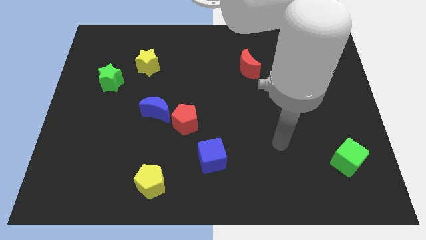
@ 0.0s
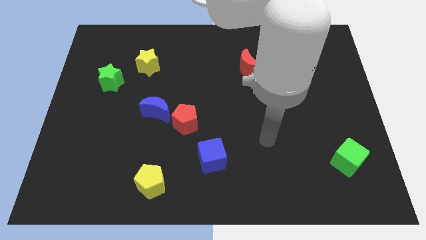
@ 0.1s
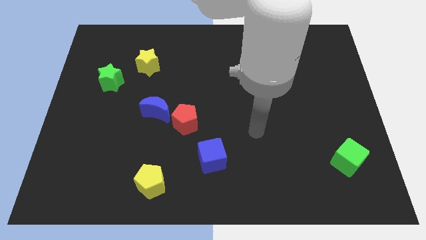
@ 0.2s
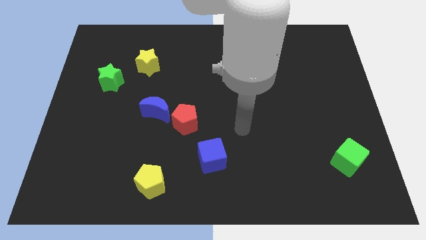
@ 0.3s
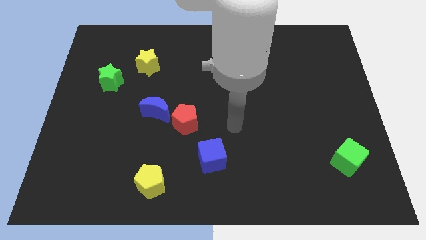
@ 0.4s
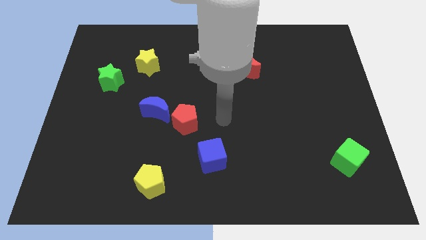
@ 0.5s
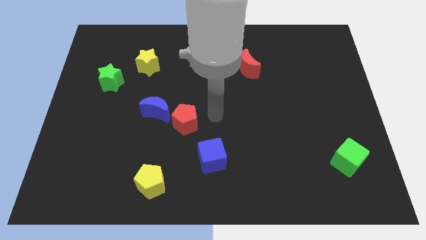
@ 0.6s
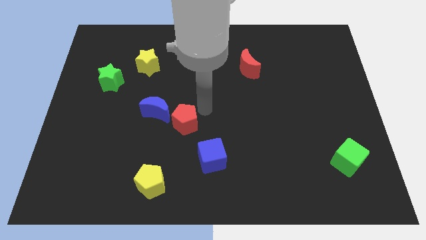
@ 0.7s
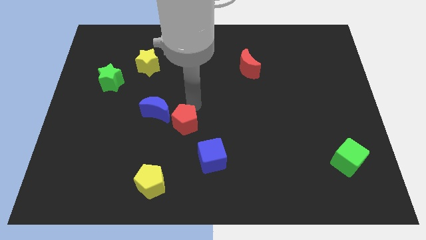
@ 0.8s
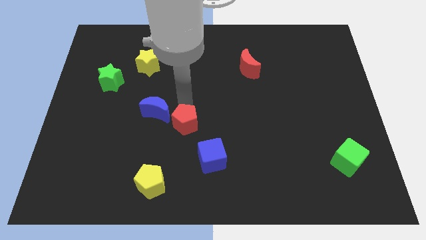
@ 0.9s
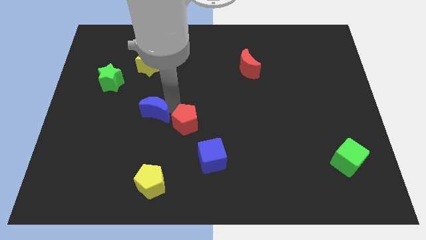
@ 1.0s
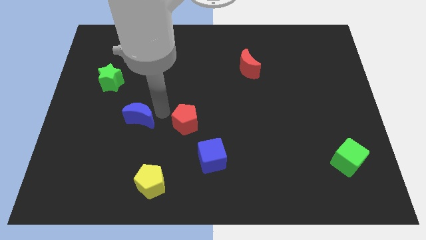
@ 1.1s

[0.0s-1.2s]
separate the red pentagon from the blue moon

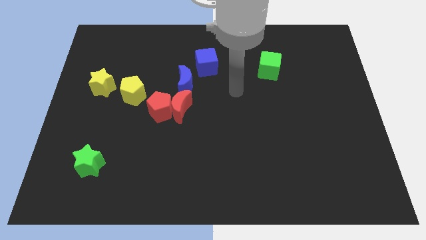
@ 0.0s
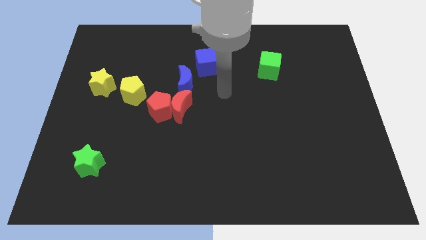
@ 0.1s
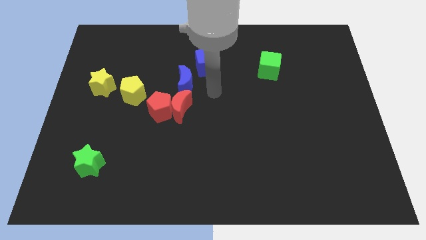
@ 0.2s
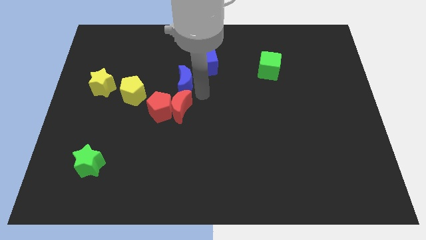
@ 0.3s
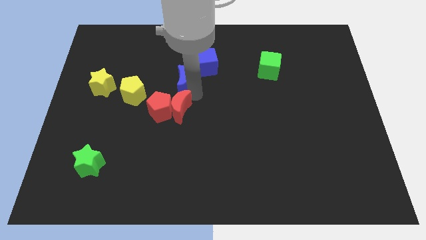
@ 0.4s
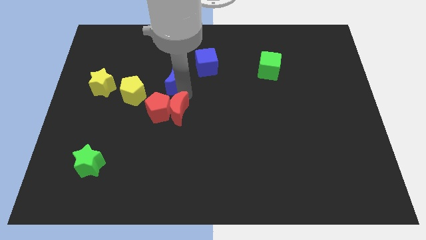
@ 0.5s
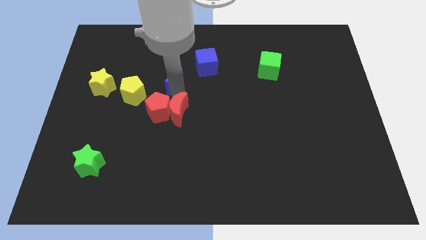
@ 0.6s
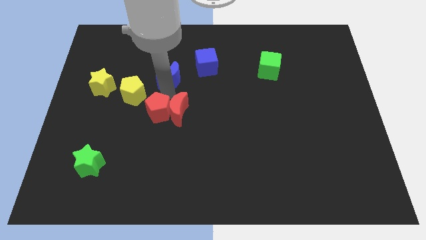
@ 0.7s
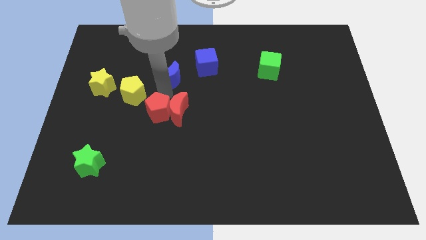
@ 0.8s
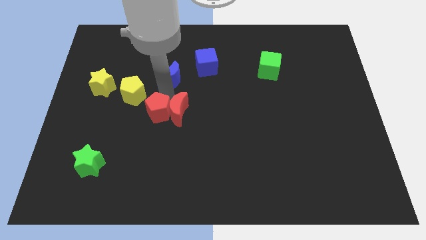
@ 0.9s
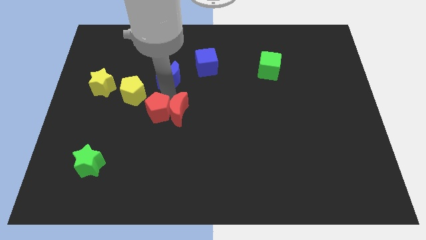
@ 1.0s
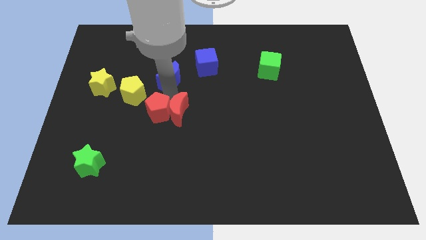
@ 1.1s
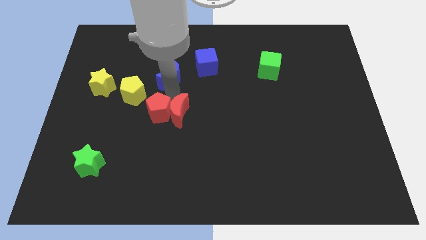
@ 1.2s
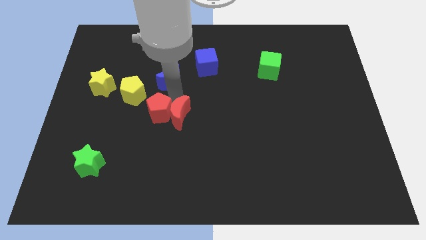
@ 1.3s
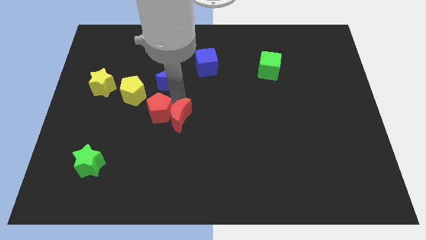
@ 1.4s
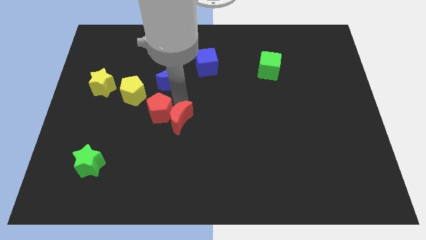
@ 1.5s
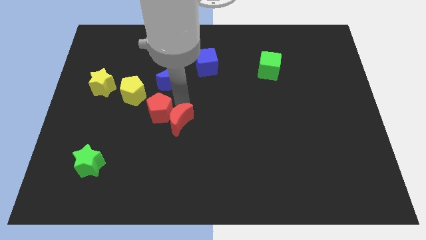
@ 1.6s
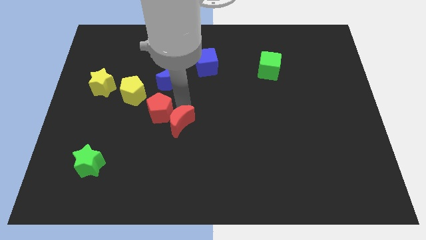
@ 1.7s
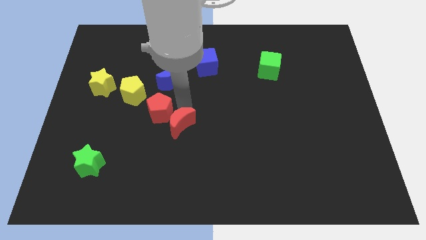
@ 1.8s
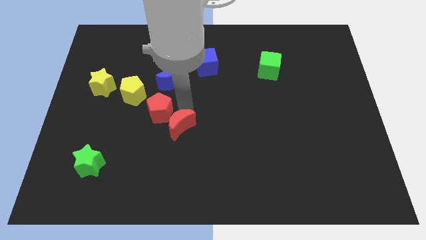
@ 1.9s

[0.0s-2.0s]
move the red moon away from the red pentagon and blue moon

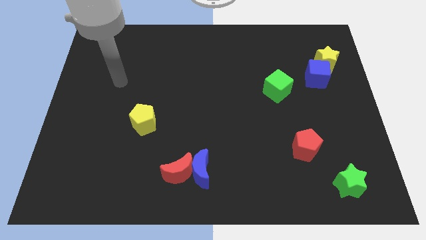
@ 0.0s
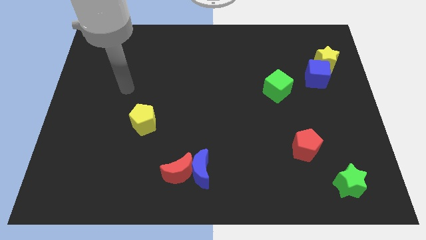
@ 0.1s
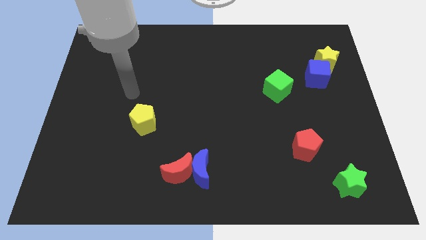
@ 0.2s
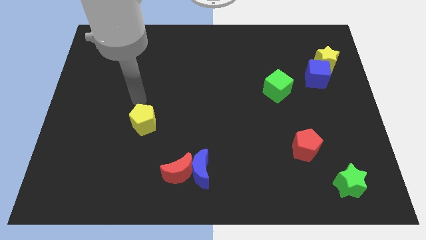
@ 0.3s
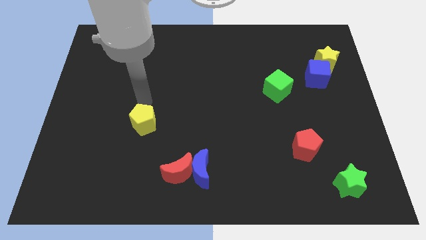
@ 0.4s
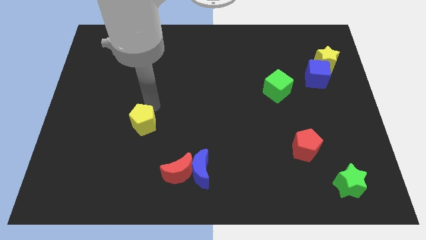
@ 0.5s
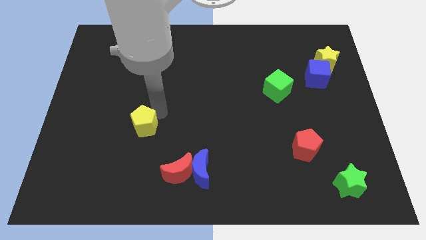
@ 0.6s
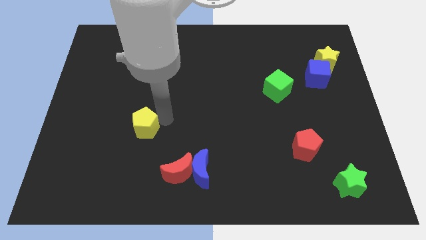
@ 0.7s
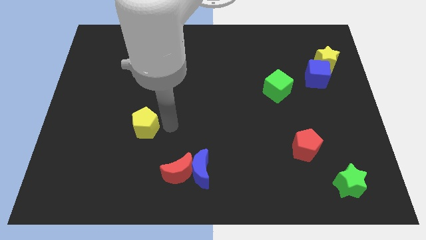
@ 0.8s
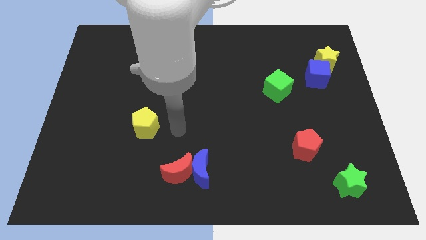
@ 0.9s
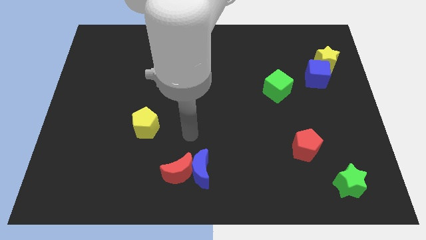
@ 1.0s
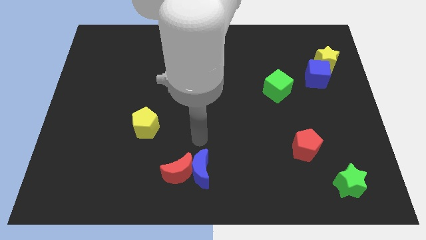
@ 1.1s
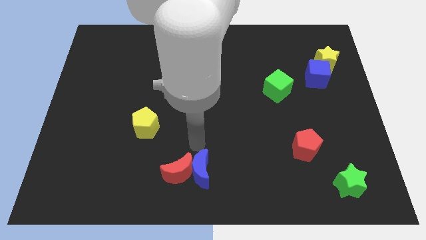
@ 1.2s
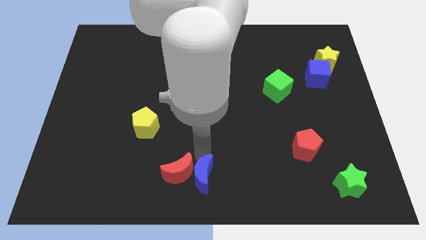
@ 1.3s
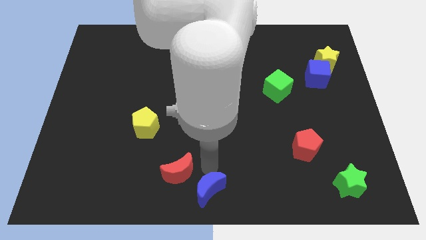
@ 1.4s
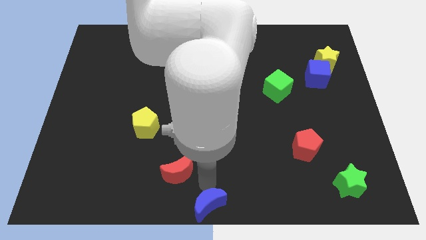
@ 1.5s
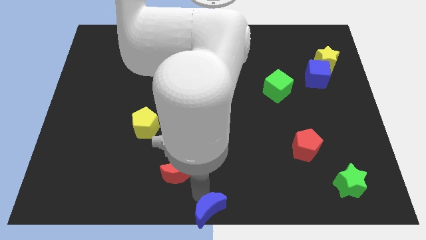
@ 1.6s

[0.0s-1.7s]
move the red moon away from the blue moon

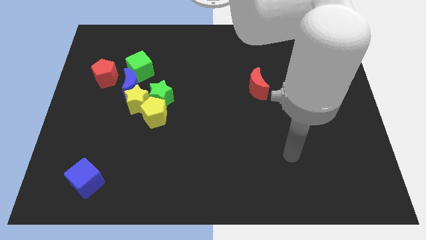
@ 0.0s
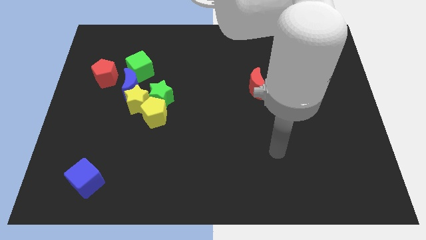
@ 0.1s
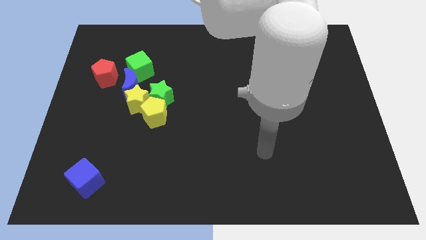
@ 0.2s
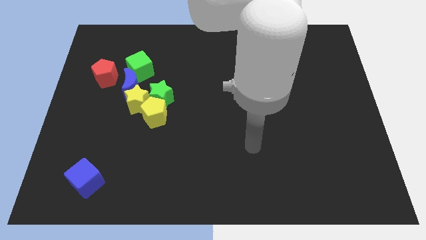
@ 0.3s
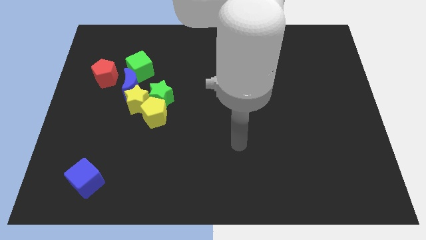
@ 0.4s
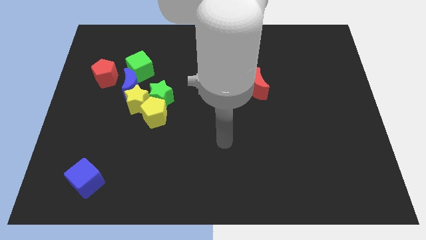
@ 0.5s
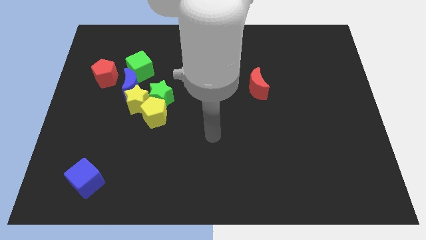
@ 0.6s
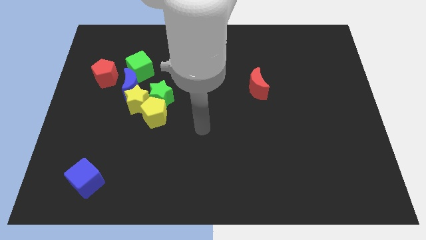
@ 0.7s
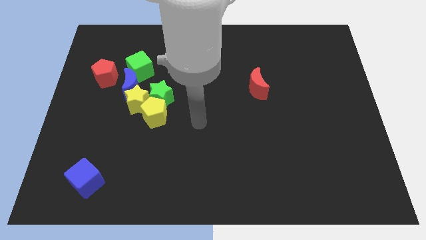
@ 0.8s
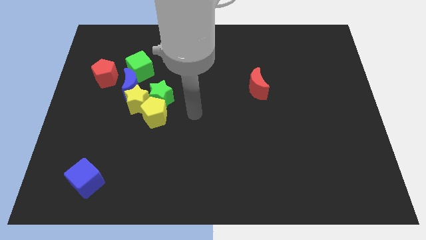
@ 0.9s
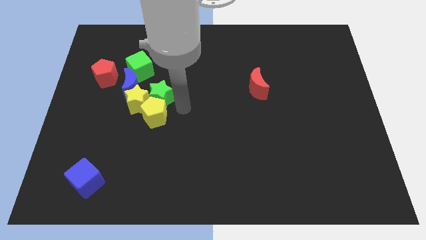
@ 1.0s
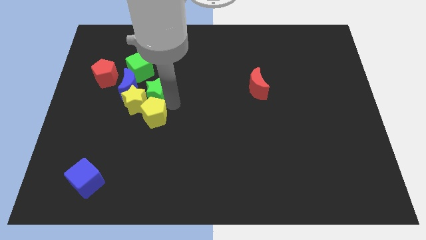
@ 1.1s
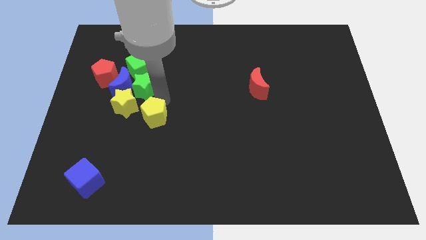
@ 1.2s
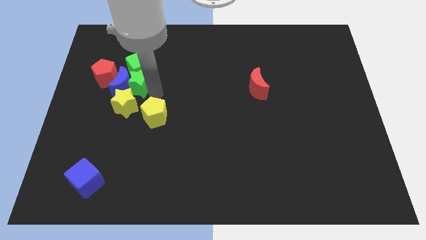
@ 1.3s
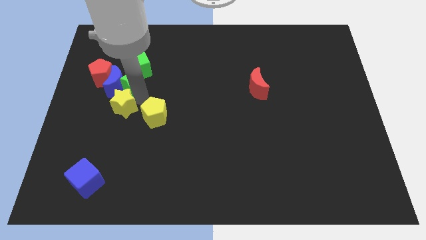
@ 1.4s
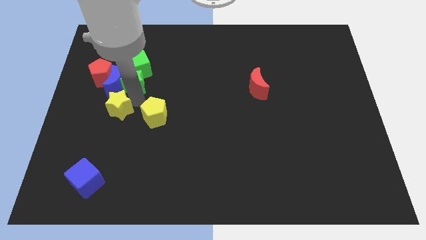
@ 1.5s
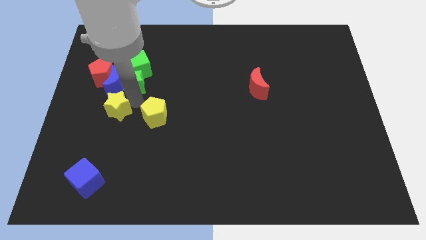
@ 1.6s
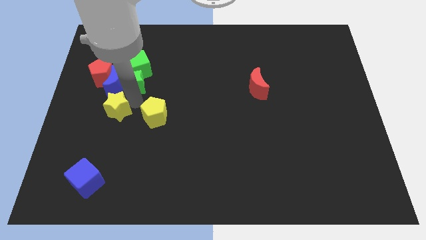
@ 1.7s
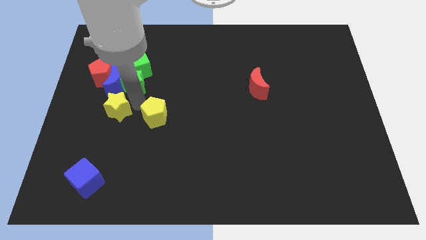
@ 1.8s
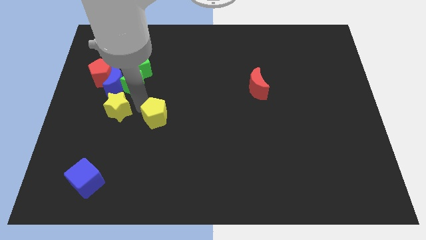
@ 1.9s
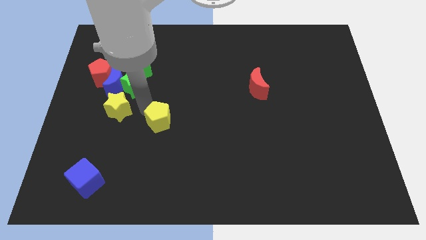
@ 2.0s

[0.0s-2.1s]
move the yellow pentagon away from the green star and yellow star

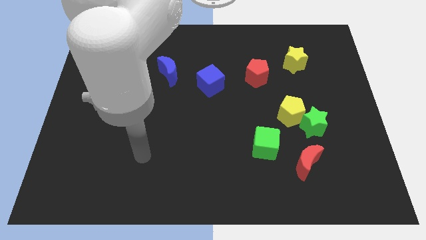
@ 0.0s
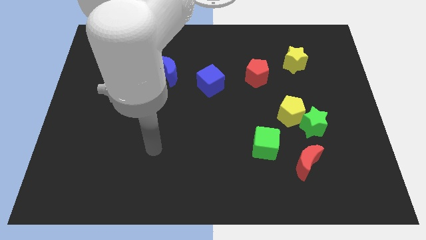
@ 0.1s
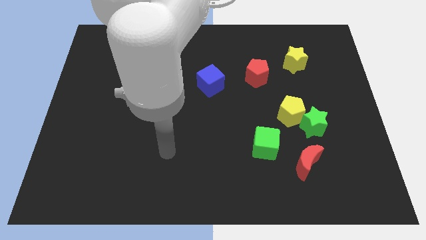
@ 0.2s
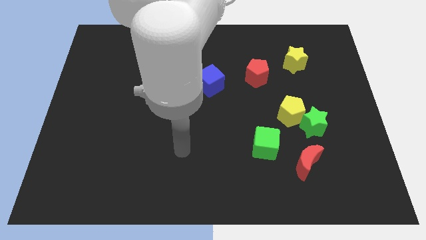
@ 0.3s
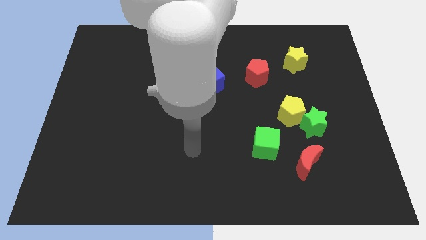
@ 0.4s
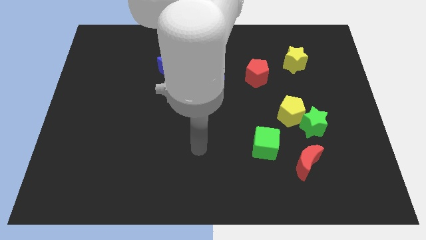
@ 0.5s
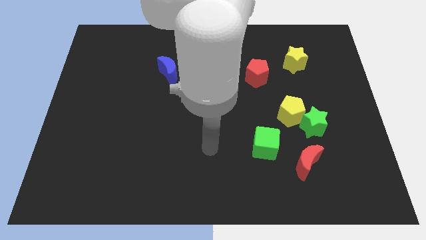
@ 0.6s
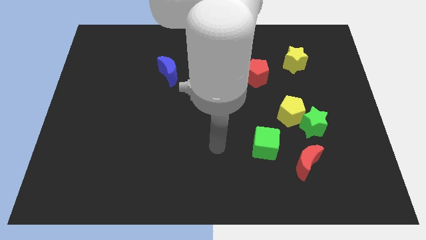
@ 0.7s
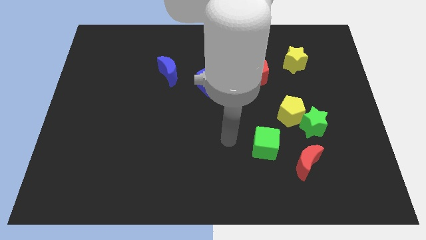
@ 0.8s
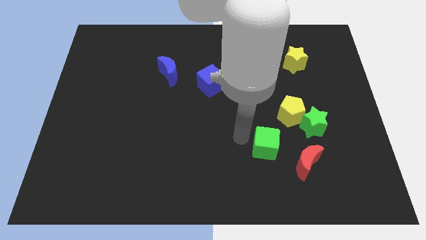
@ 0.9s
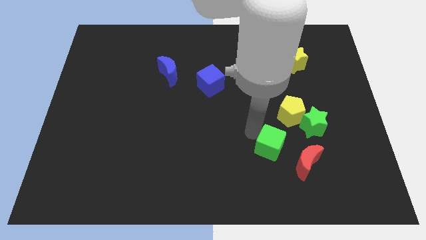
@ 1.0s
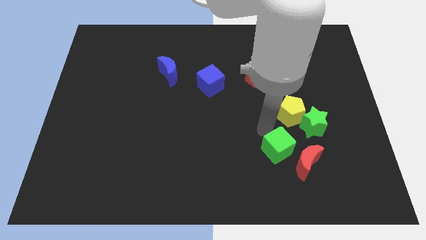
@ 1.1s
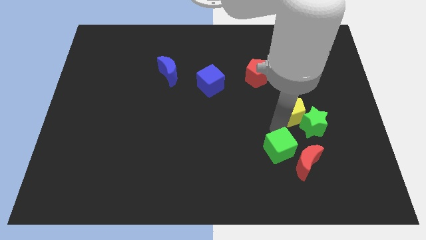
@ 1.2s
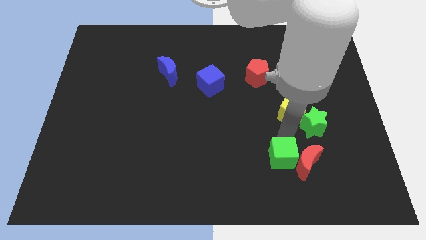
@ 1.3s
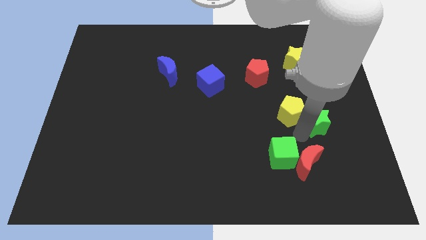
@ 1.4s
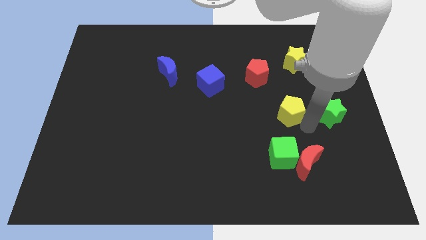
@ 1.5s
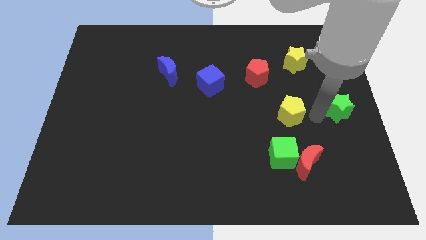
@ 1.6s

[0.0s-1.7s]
move the yellow pentagon away from the green star

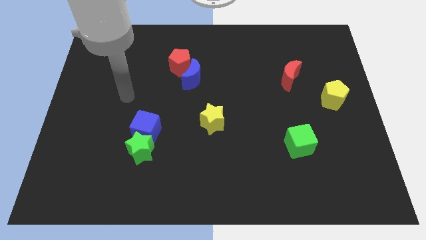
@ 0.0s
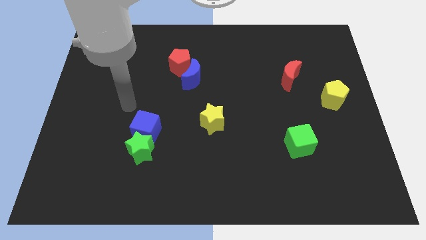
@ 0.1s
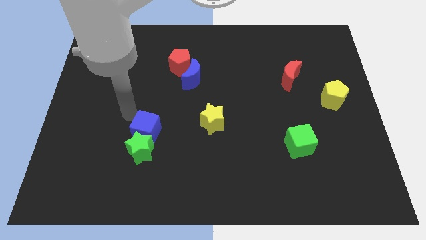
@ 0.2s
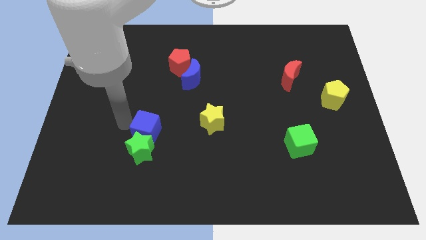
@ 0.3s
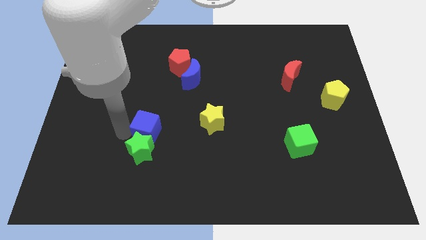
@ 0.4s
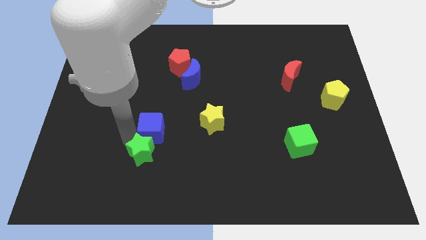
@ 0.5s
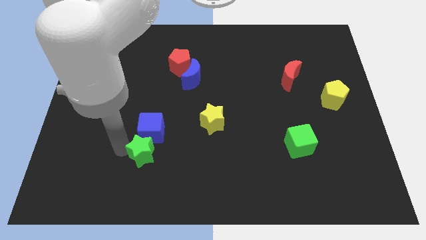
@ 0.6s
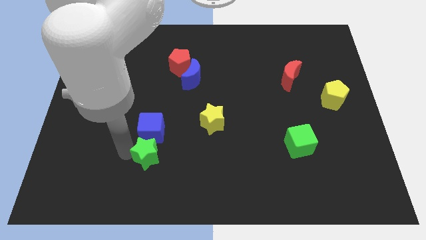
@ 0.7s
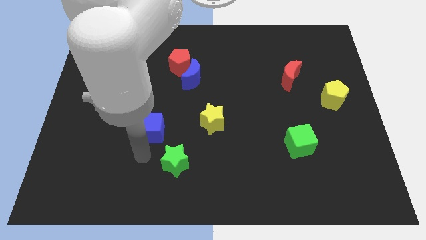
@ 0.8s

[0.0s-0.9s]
pull the blue cube apart from the green star
